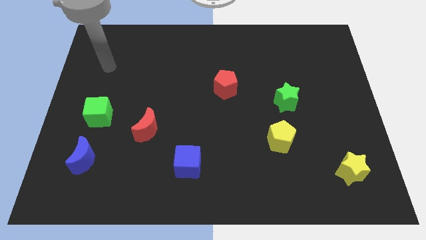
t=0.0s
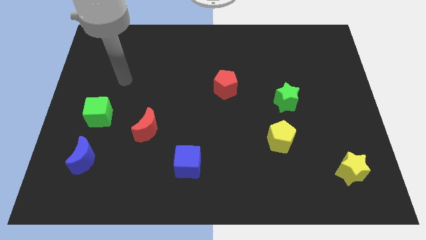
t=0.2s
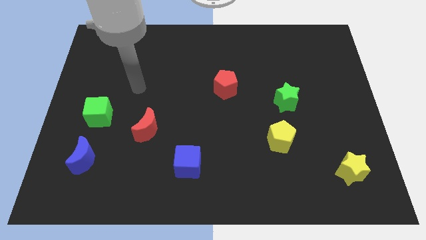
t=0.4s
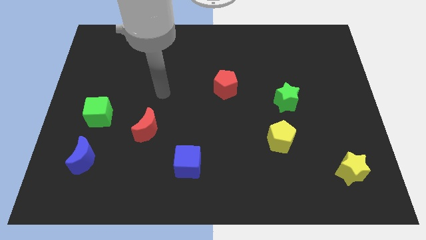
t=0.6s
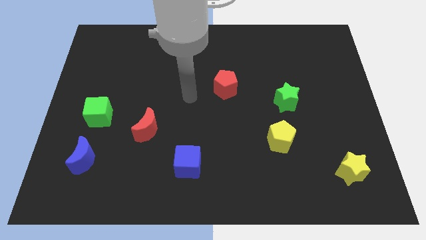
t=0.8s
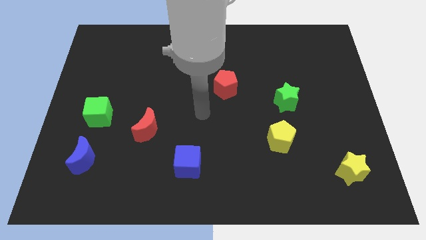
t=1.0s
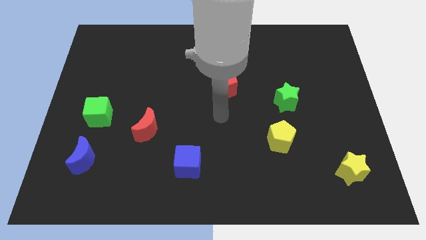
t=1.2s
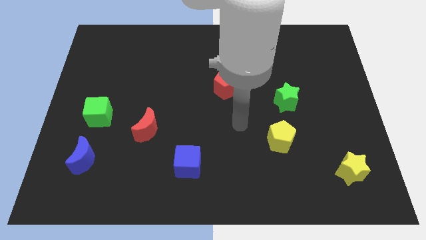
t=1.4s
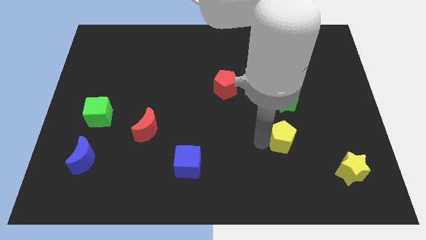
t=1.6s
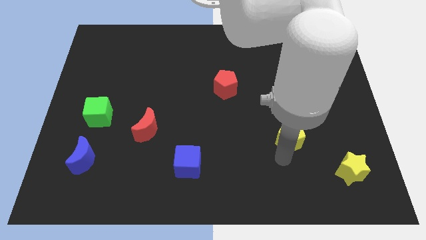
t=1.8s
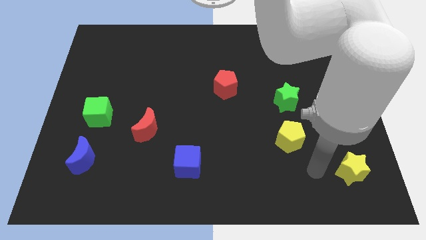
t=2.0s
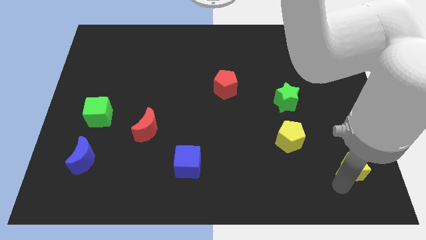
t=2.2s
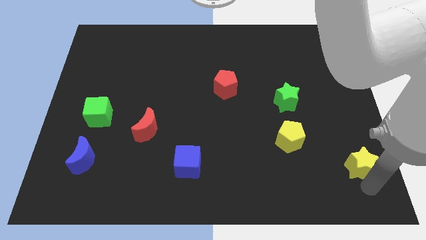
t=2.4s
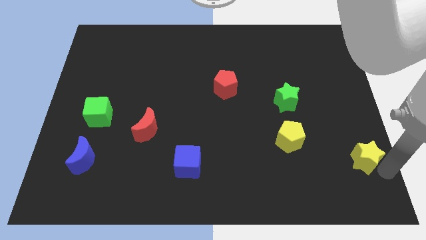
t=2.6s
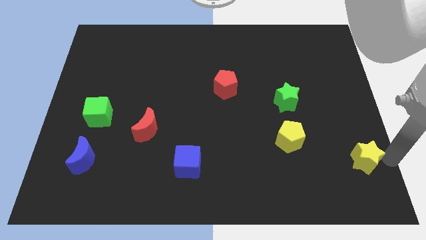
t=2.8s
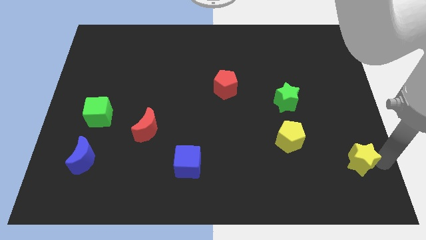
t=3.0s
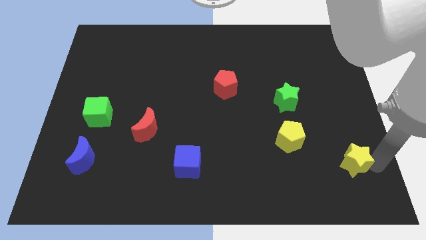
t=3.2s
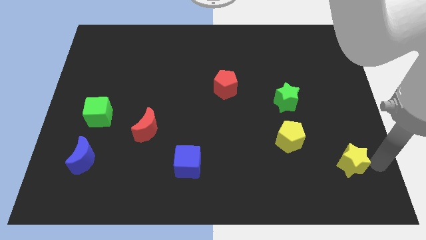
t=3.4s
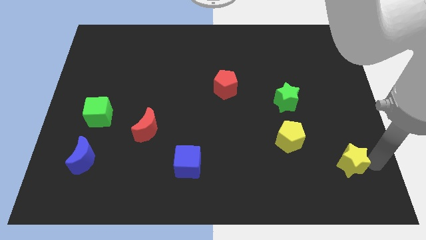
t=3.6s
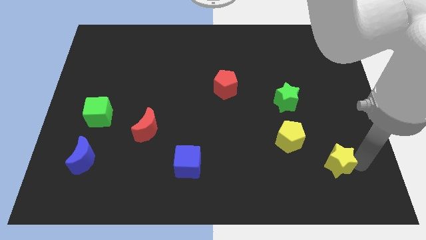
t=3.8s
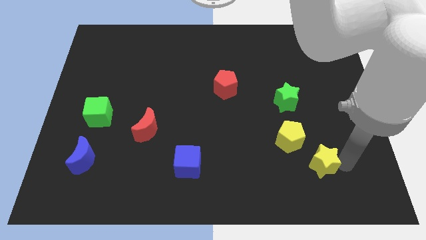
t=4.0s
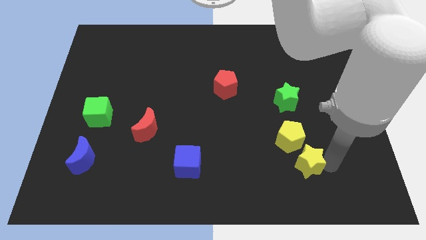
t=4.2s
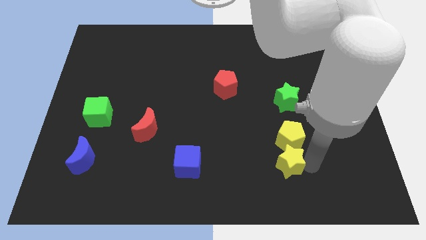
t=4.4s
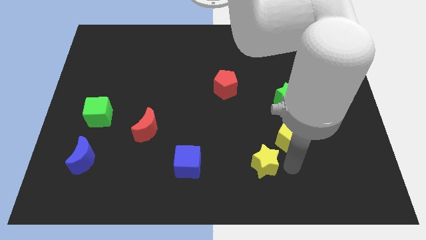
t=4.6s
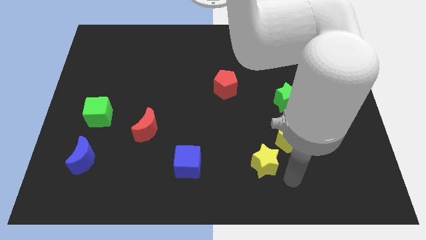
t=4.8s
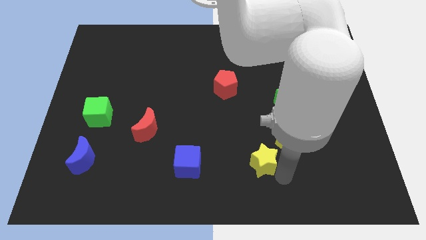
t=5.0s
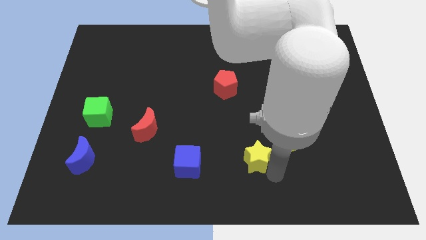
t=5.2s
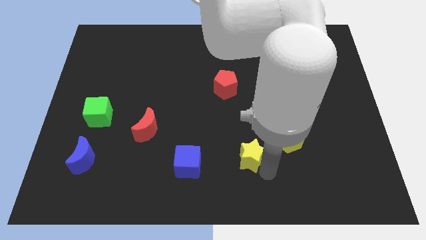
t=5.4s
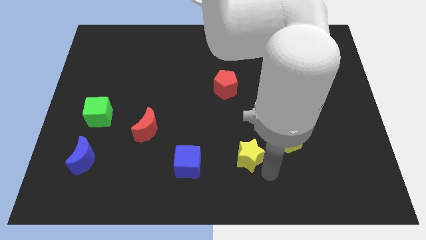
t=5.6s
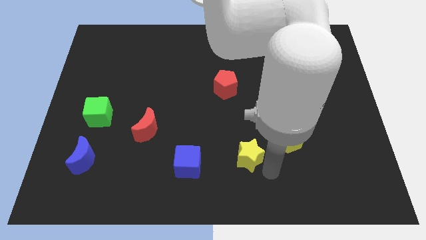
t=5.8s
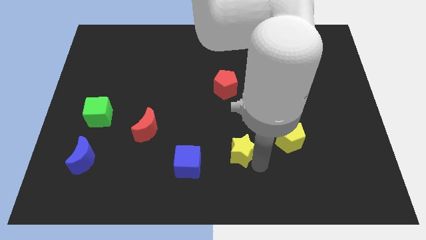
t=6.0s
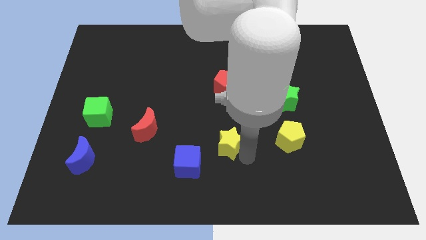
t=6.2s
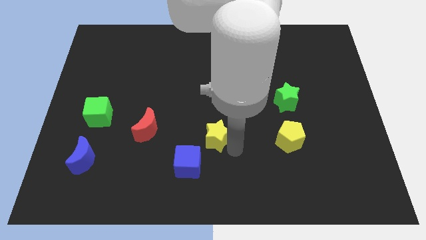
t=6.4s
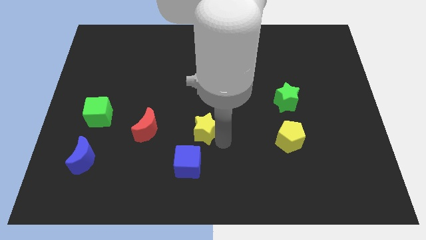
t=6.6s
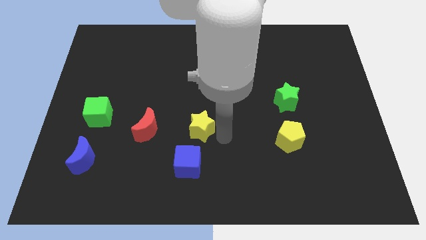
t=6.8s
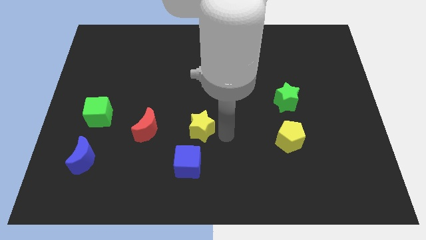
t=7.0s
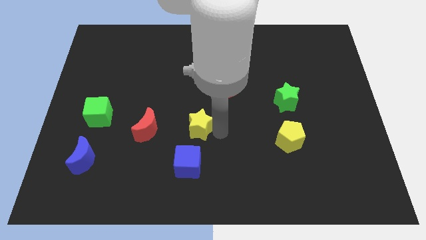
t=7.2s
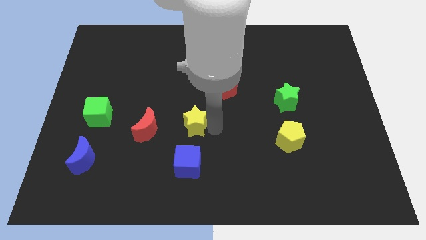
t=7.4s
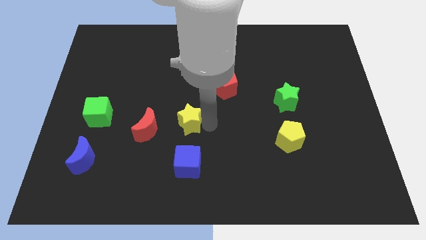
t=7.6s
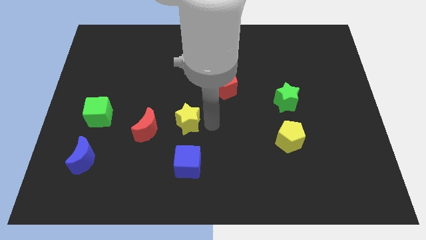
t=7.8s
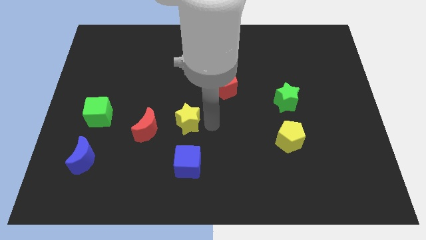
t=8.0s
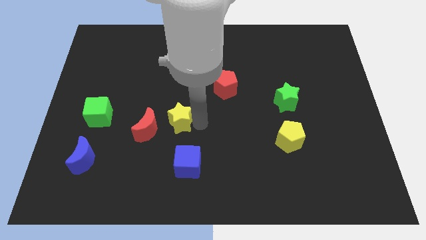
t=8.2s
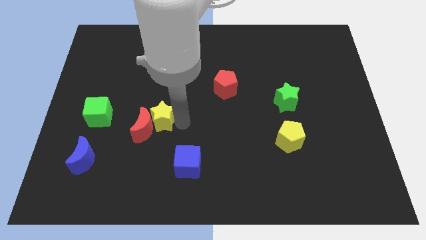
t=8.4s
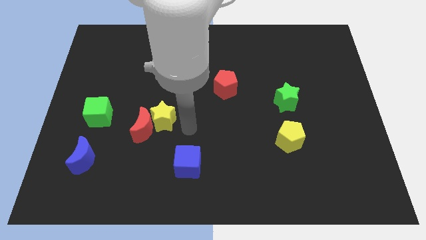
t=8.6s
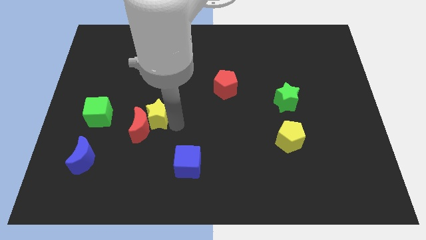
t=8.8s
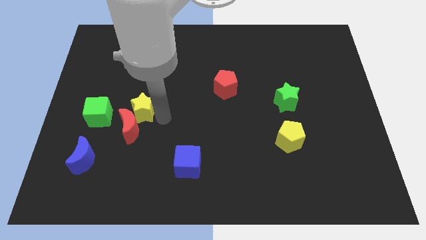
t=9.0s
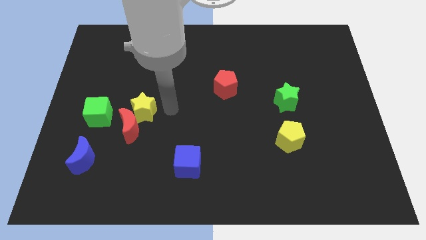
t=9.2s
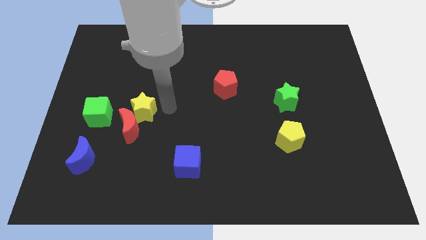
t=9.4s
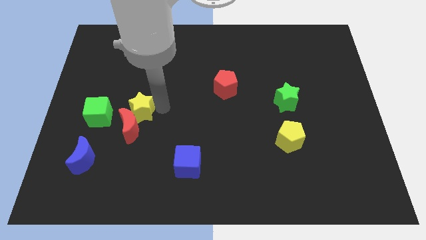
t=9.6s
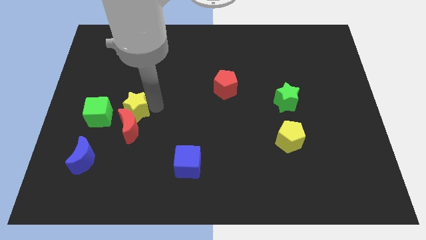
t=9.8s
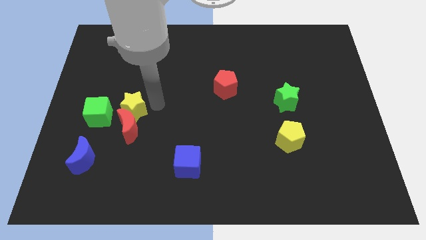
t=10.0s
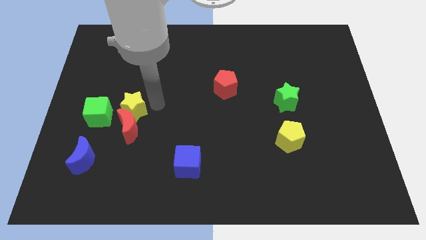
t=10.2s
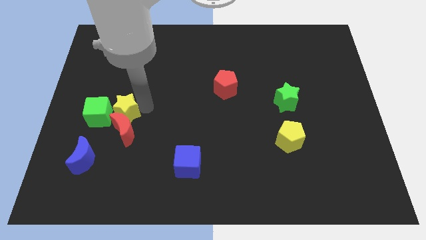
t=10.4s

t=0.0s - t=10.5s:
move the yellow star close to the green cube

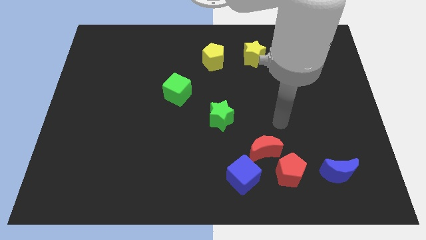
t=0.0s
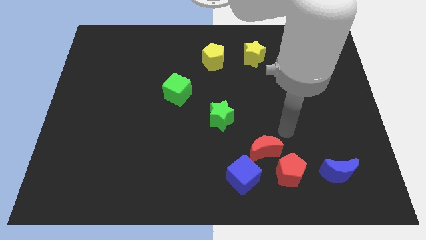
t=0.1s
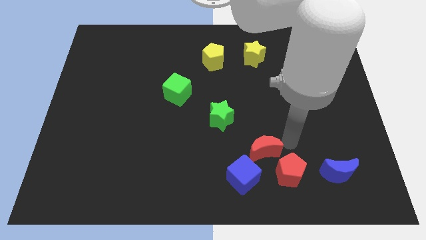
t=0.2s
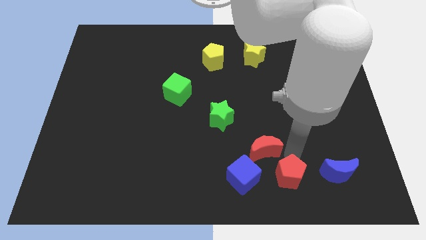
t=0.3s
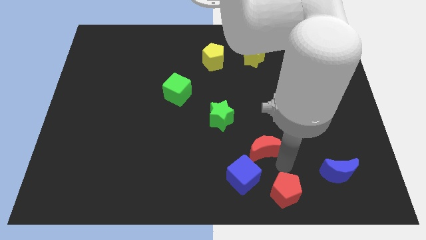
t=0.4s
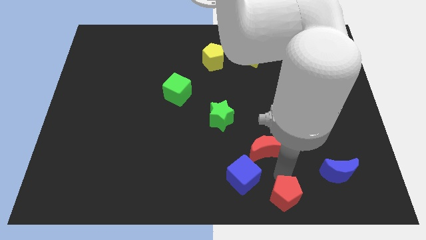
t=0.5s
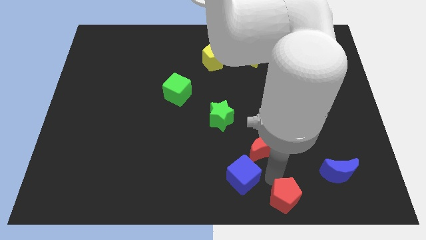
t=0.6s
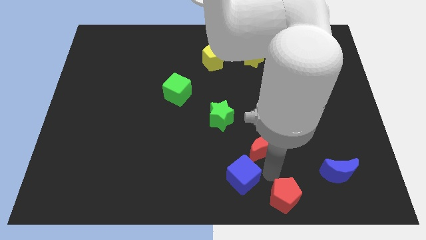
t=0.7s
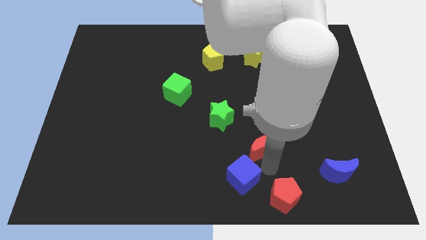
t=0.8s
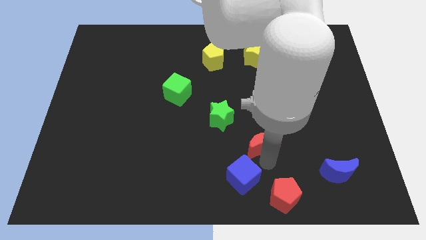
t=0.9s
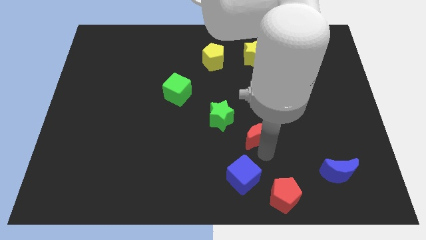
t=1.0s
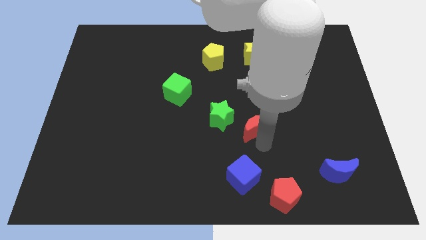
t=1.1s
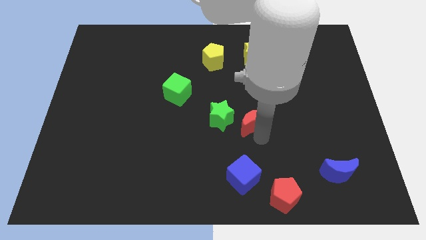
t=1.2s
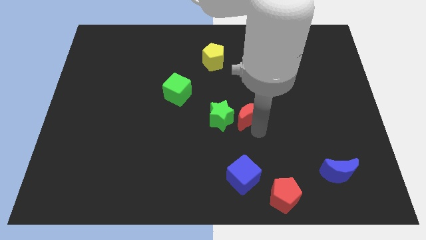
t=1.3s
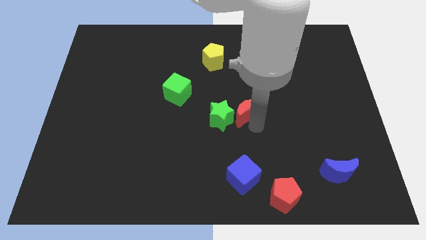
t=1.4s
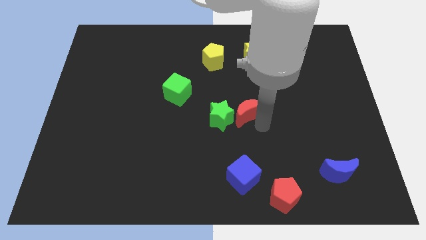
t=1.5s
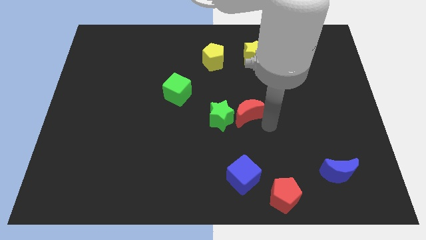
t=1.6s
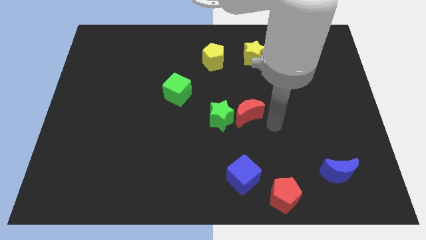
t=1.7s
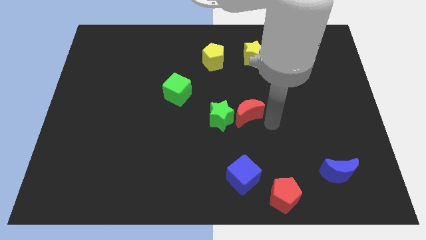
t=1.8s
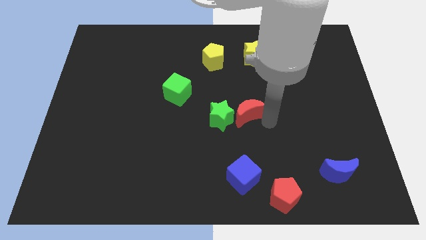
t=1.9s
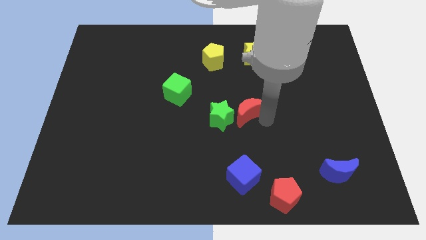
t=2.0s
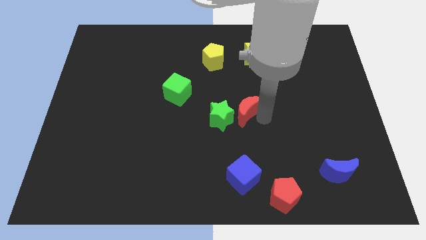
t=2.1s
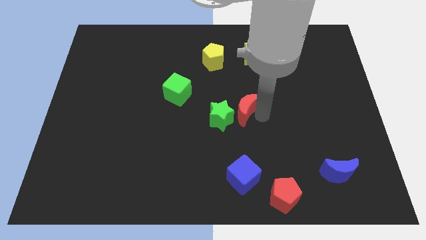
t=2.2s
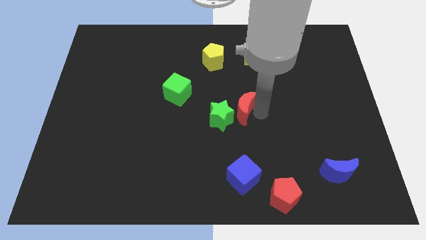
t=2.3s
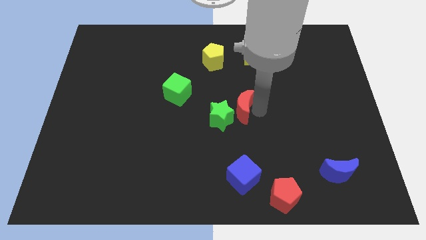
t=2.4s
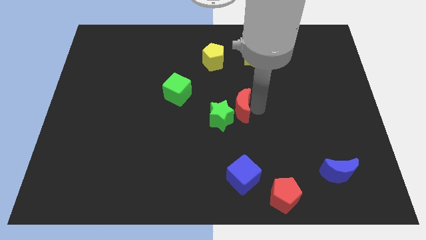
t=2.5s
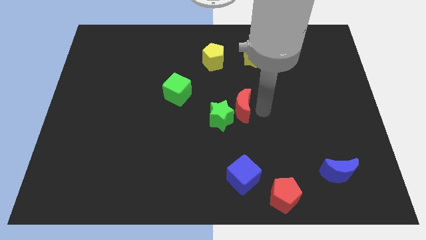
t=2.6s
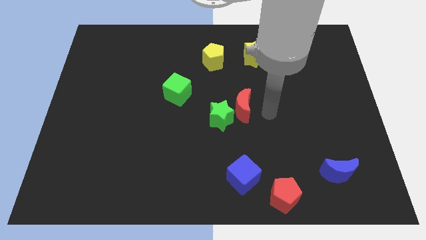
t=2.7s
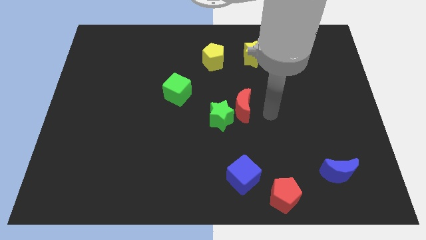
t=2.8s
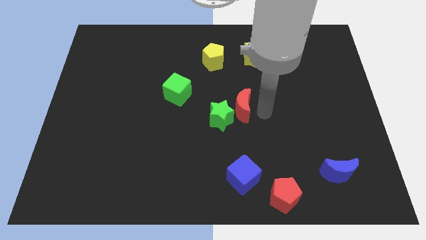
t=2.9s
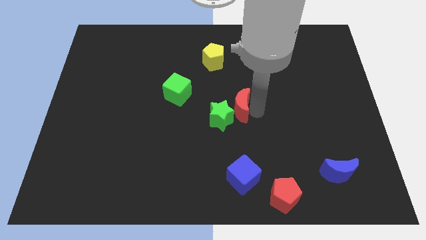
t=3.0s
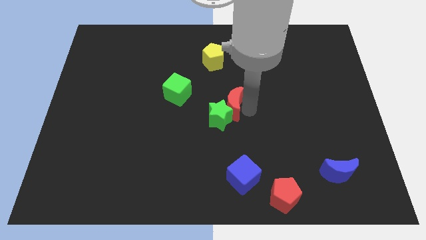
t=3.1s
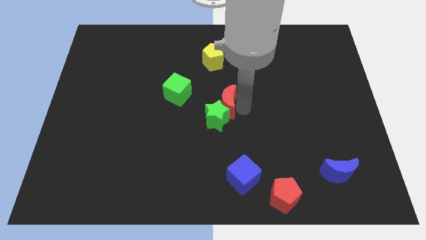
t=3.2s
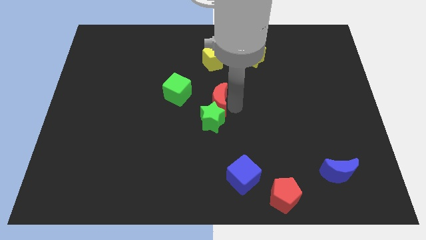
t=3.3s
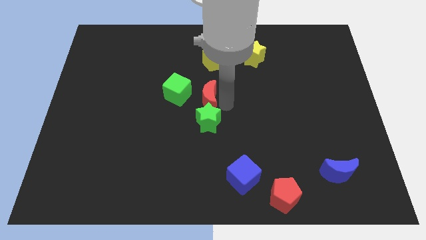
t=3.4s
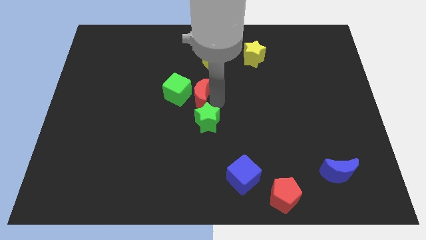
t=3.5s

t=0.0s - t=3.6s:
put the red moon close to the green cube
